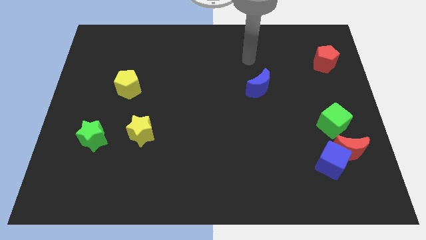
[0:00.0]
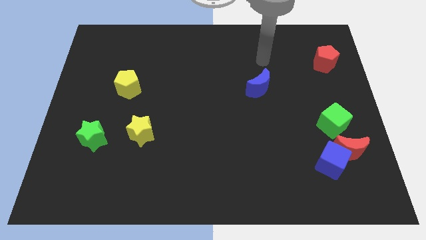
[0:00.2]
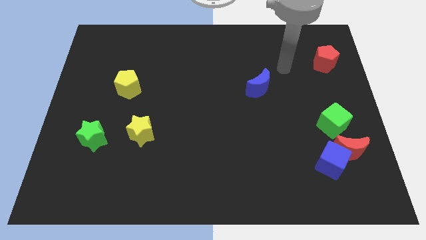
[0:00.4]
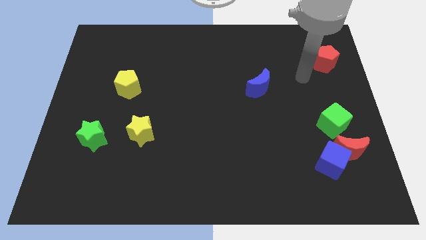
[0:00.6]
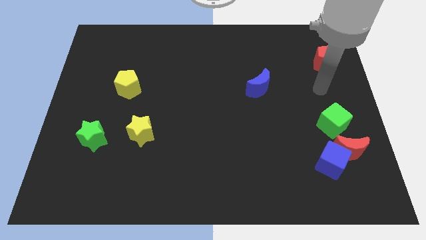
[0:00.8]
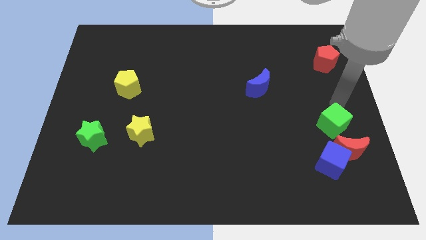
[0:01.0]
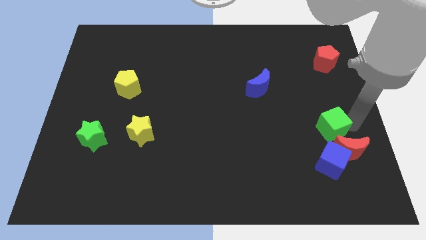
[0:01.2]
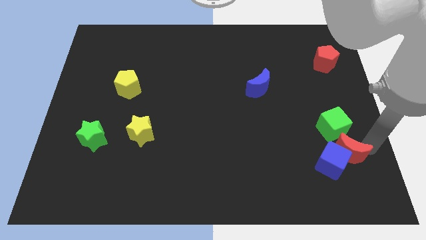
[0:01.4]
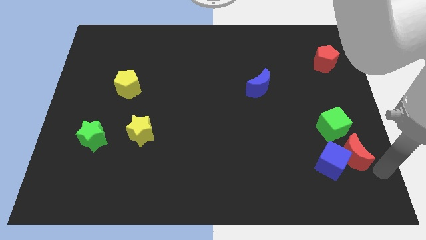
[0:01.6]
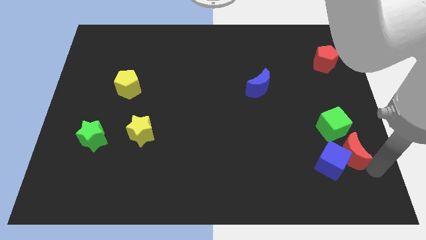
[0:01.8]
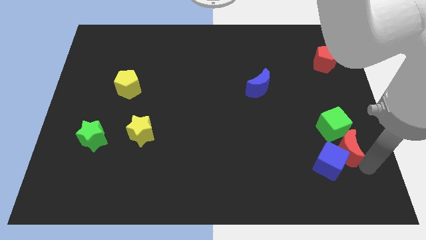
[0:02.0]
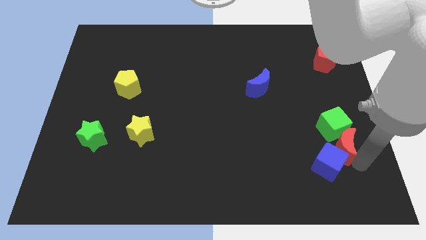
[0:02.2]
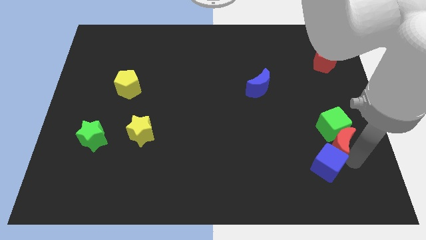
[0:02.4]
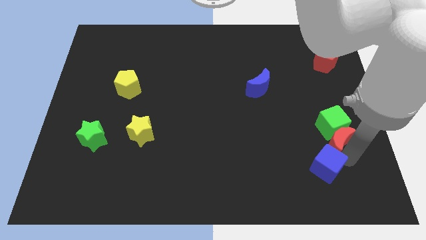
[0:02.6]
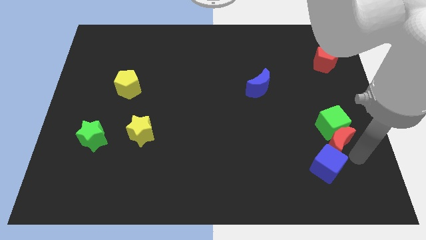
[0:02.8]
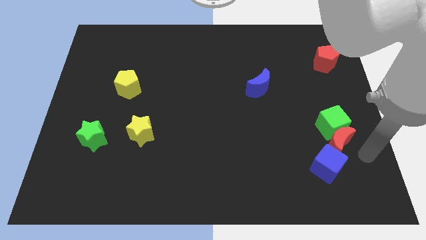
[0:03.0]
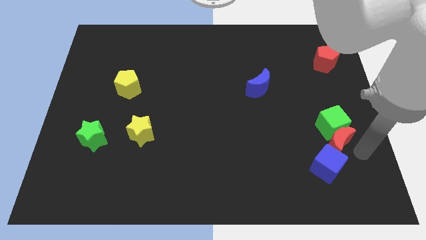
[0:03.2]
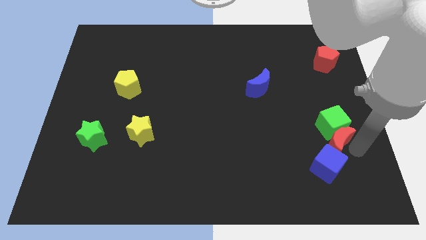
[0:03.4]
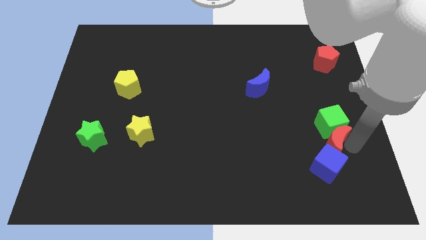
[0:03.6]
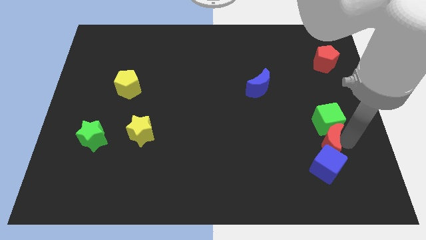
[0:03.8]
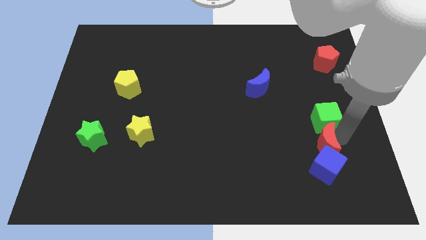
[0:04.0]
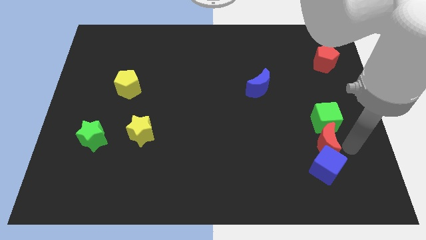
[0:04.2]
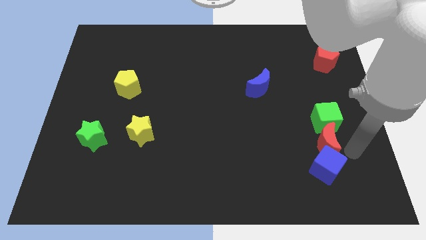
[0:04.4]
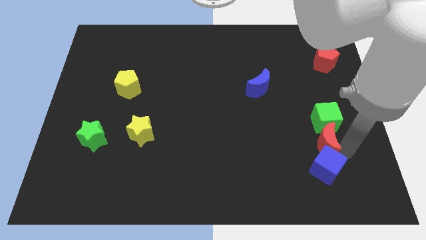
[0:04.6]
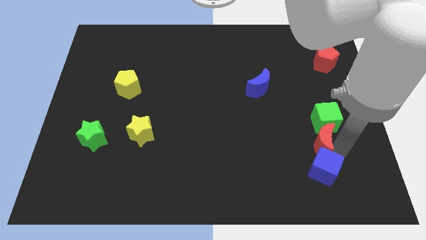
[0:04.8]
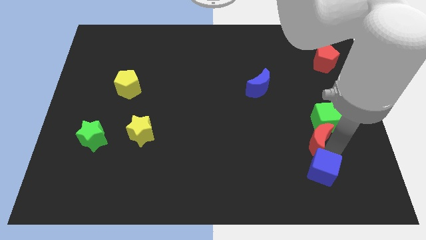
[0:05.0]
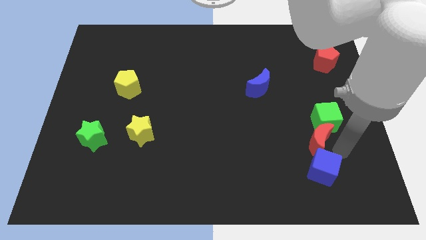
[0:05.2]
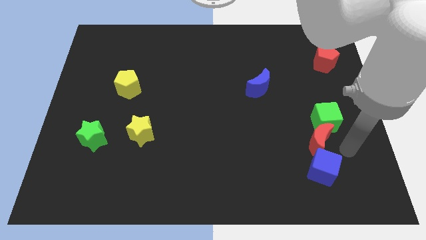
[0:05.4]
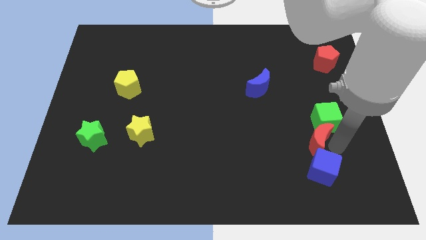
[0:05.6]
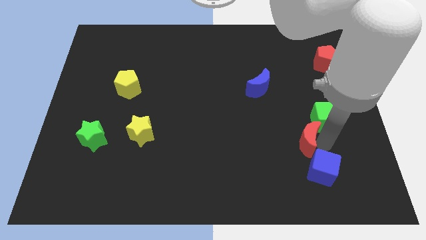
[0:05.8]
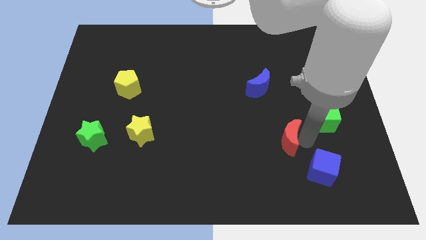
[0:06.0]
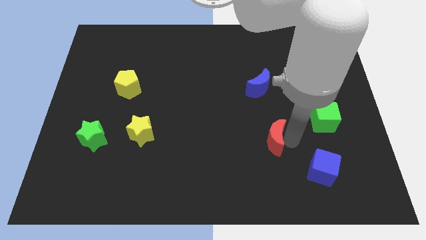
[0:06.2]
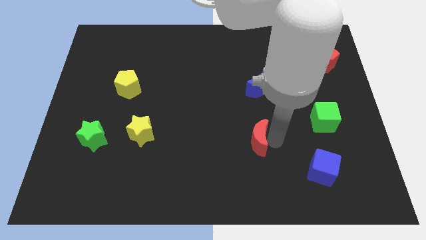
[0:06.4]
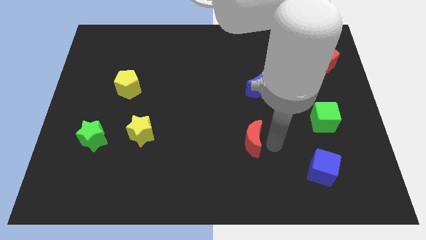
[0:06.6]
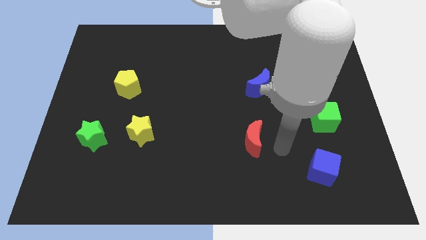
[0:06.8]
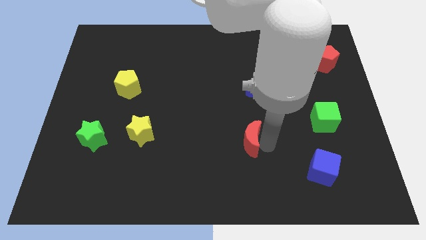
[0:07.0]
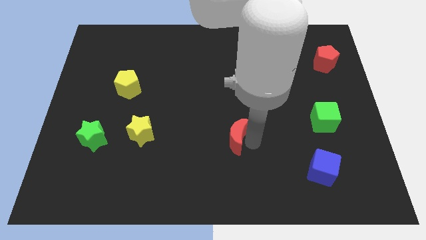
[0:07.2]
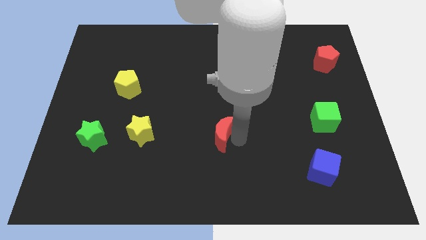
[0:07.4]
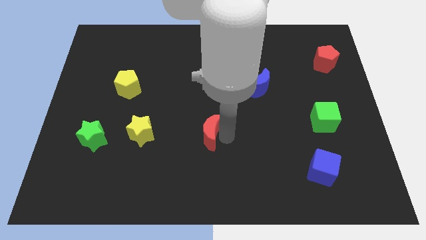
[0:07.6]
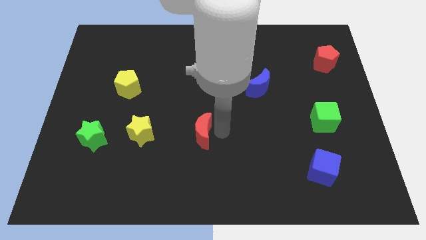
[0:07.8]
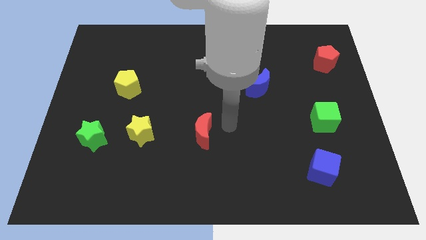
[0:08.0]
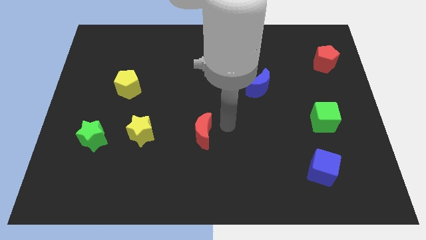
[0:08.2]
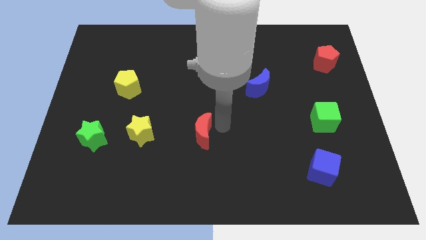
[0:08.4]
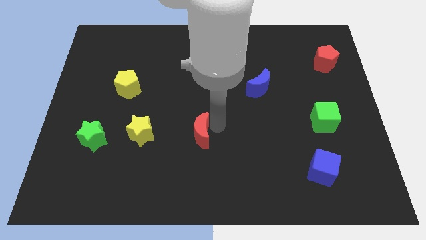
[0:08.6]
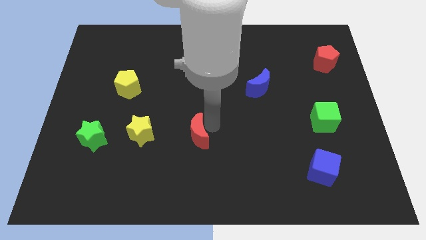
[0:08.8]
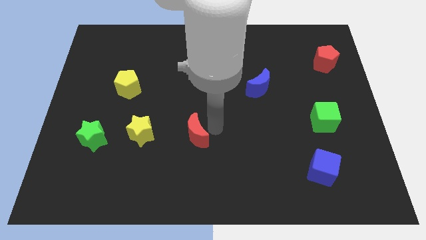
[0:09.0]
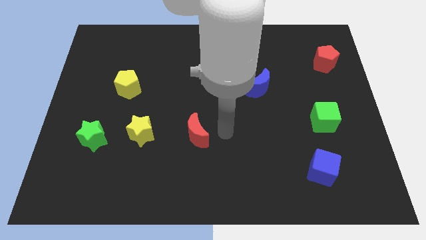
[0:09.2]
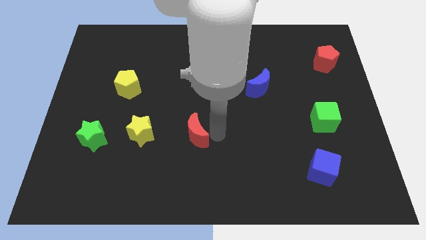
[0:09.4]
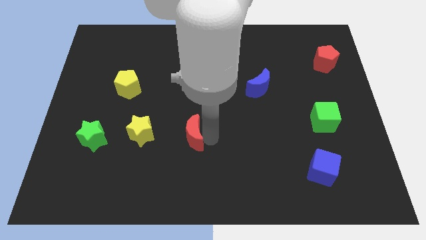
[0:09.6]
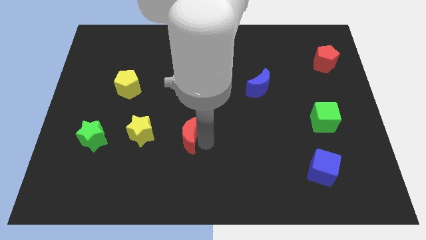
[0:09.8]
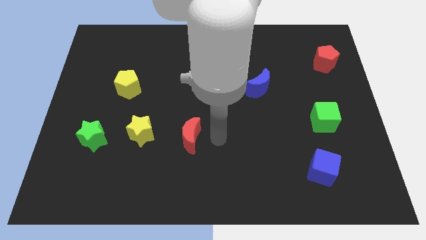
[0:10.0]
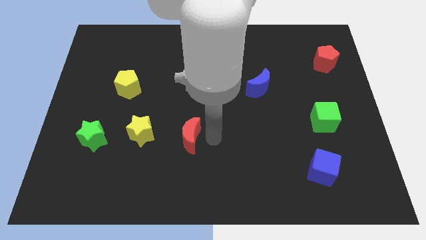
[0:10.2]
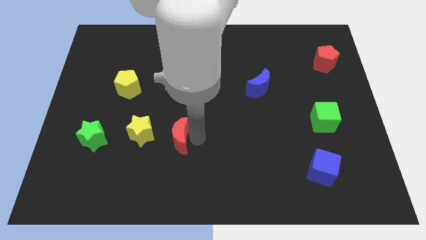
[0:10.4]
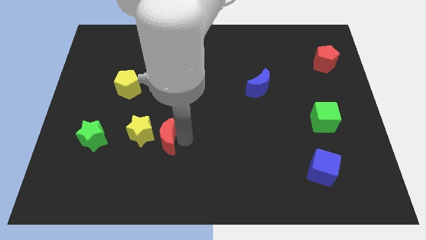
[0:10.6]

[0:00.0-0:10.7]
move the red moon right of the green star

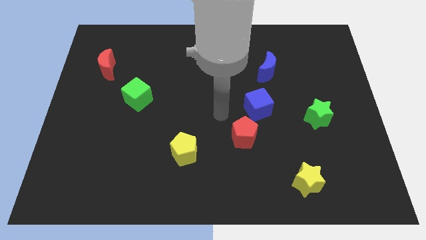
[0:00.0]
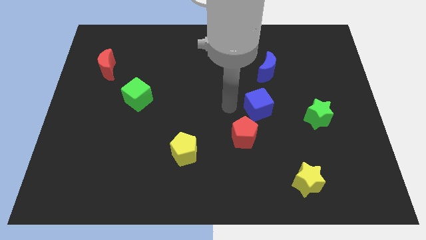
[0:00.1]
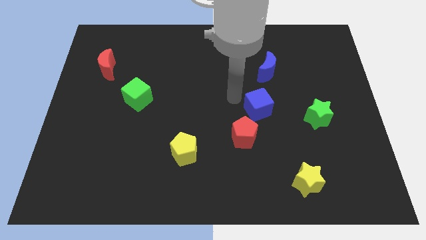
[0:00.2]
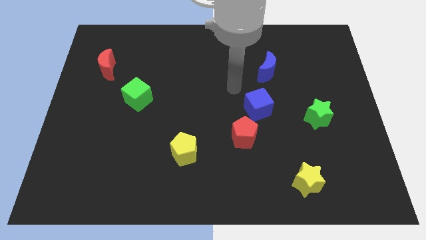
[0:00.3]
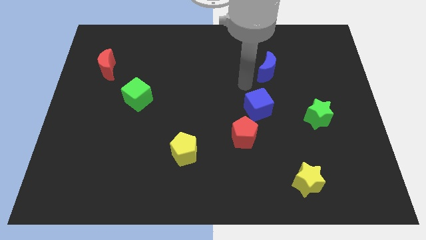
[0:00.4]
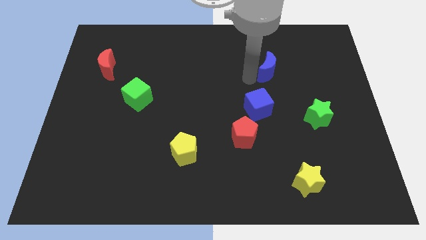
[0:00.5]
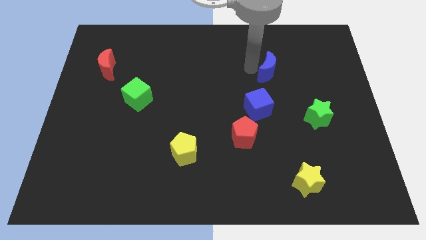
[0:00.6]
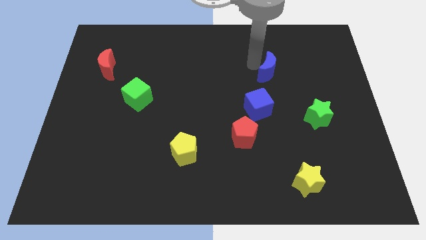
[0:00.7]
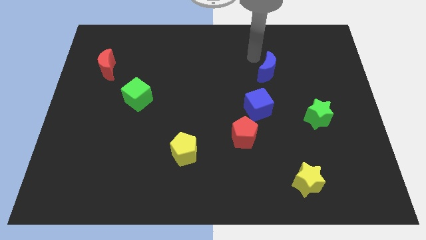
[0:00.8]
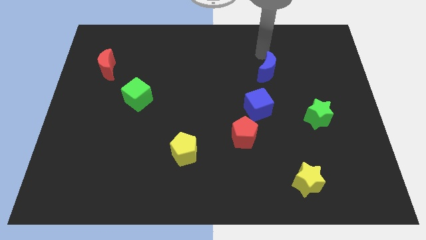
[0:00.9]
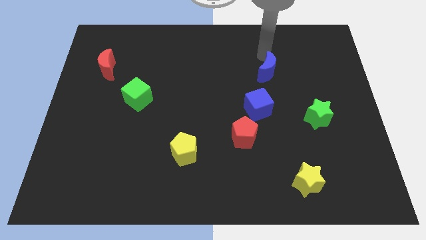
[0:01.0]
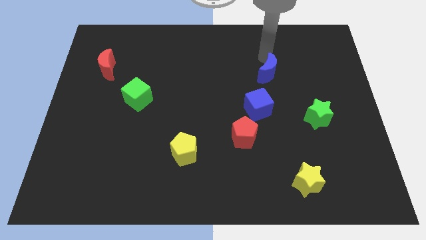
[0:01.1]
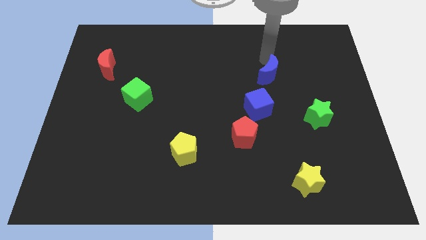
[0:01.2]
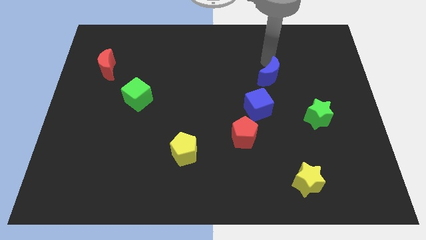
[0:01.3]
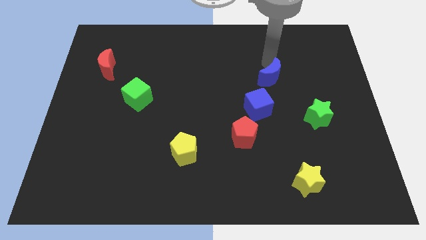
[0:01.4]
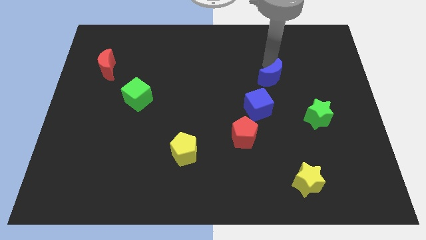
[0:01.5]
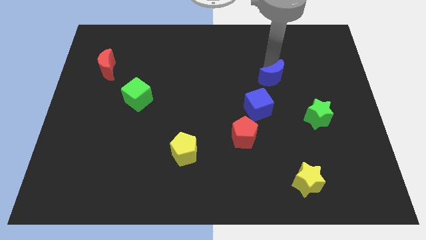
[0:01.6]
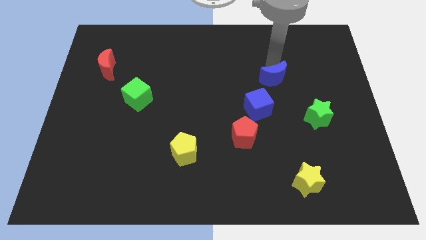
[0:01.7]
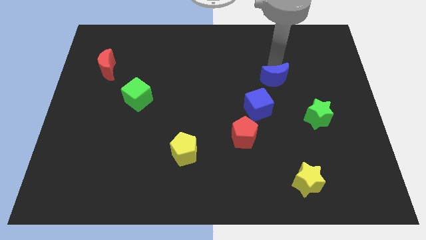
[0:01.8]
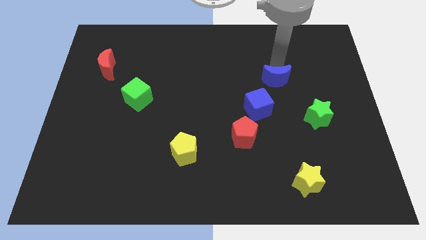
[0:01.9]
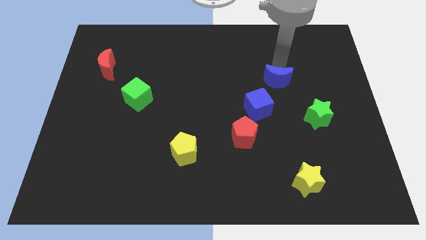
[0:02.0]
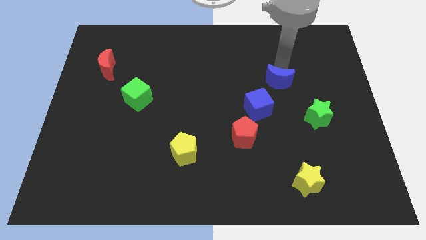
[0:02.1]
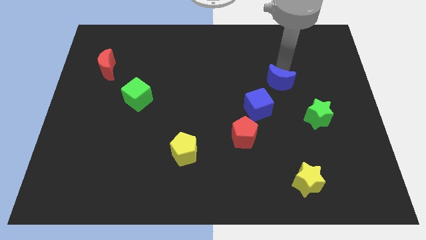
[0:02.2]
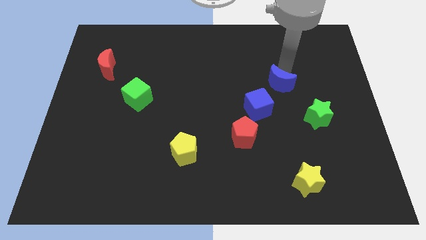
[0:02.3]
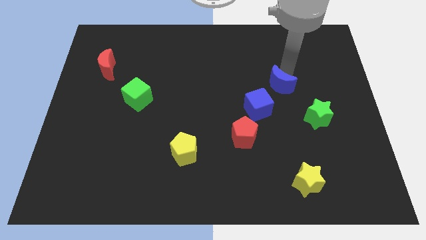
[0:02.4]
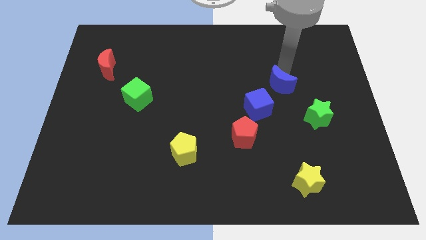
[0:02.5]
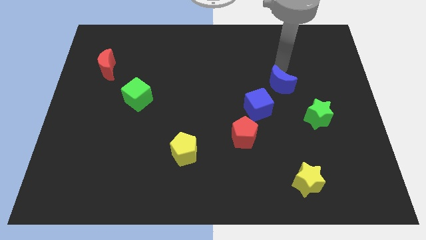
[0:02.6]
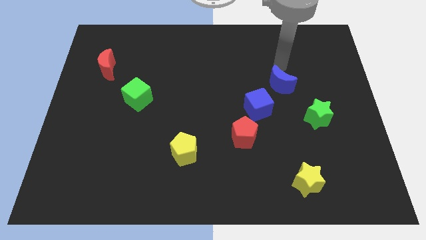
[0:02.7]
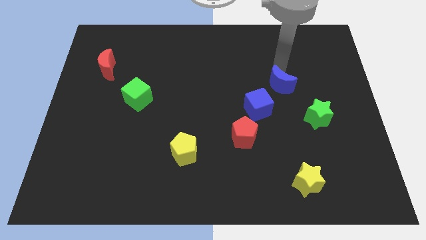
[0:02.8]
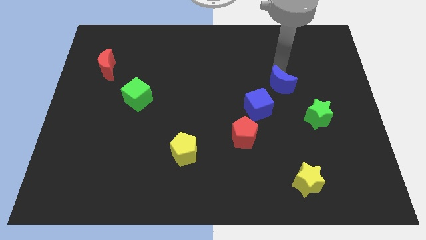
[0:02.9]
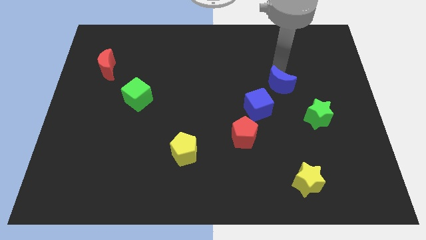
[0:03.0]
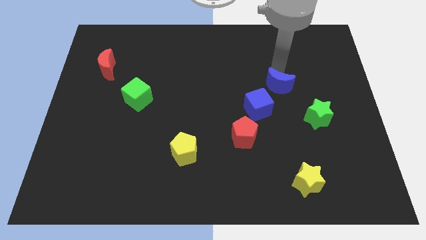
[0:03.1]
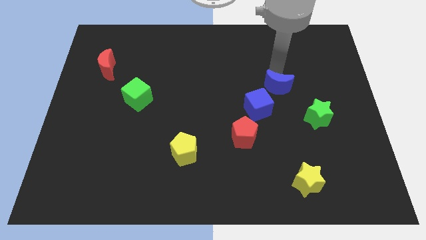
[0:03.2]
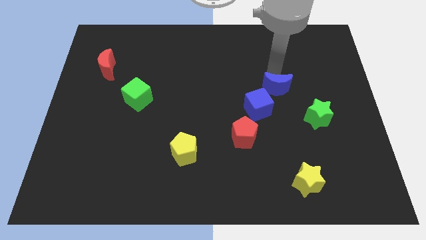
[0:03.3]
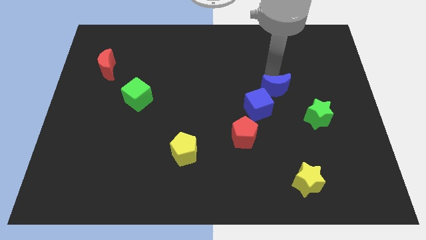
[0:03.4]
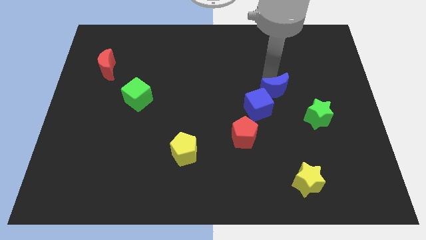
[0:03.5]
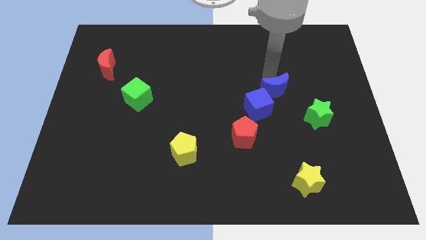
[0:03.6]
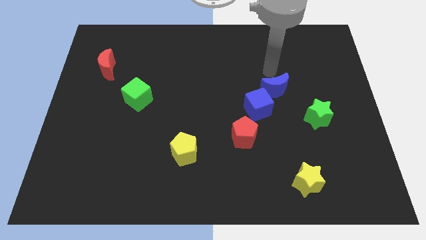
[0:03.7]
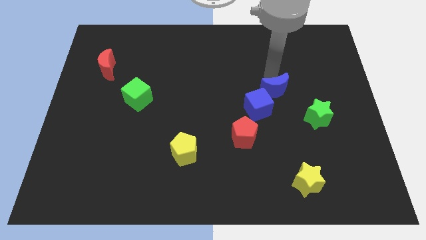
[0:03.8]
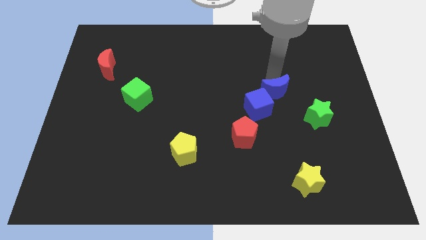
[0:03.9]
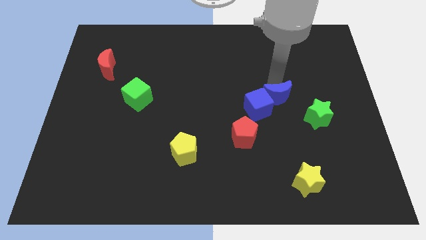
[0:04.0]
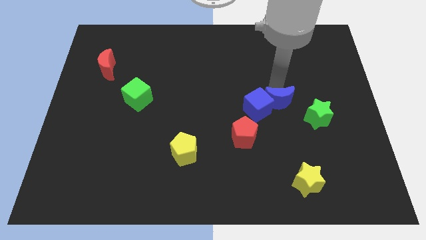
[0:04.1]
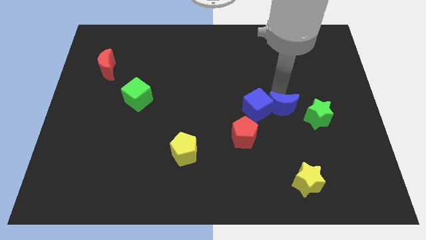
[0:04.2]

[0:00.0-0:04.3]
move the blue moon diagonally down and to the right of the blue cube
